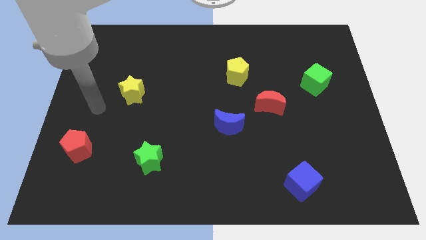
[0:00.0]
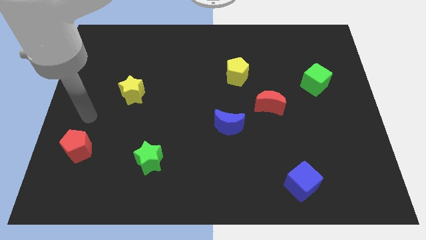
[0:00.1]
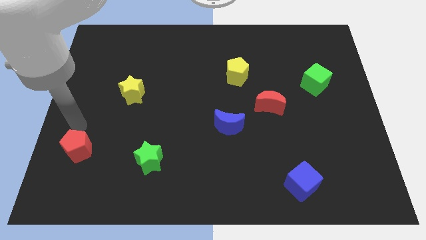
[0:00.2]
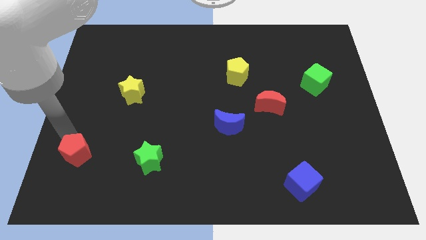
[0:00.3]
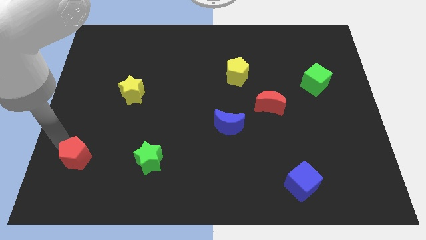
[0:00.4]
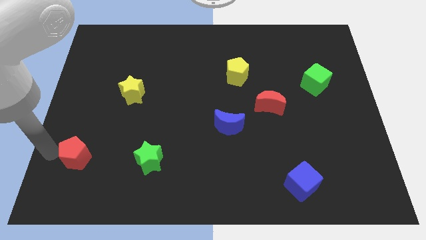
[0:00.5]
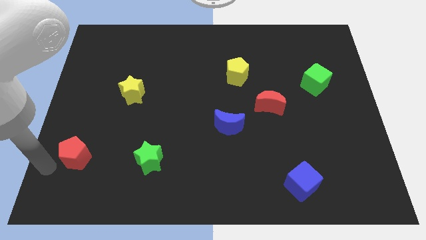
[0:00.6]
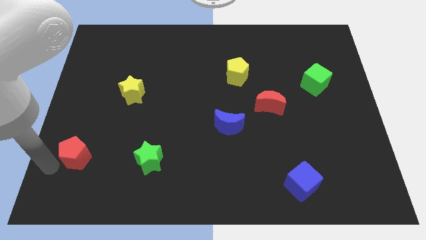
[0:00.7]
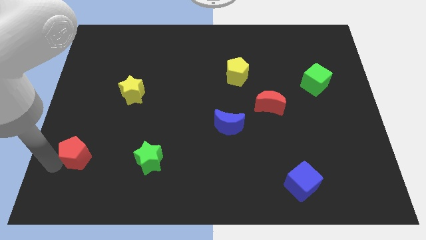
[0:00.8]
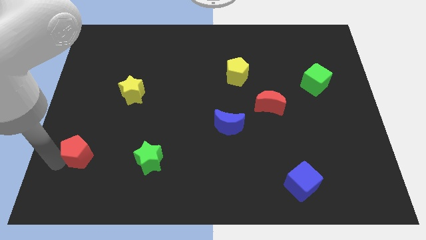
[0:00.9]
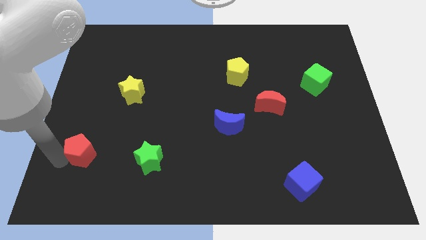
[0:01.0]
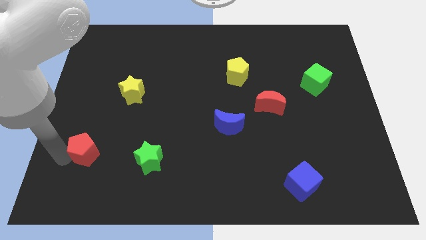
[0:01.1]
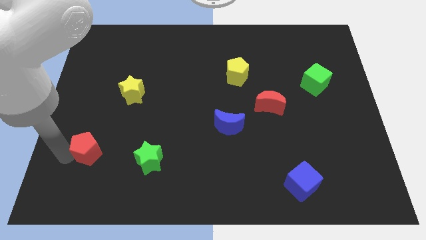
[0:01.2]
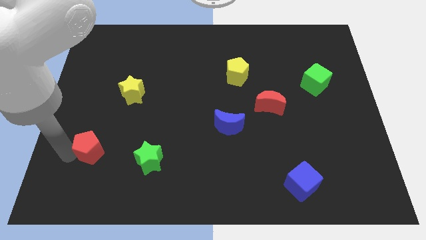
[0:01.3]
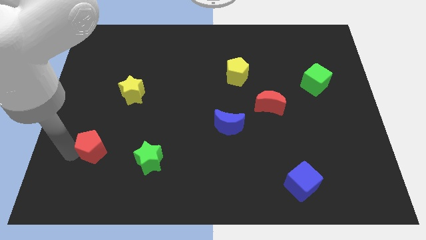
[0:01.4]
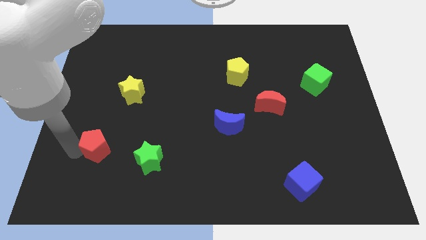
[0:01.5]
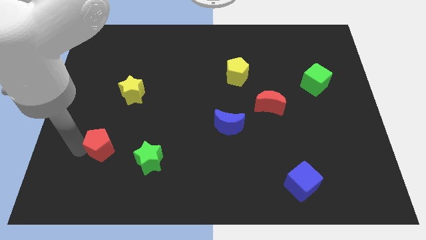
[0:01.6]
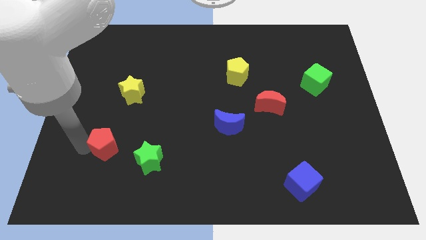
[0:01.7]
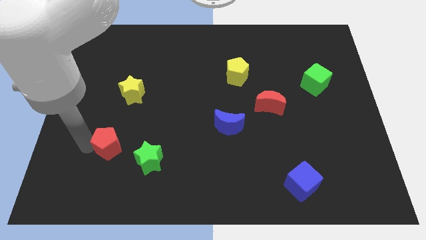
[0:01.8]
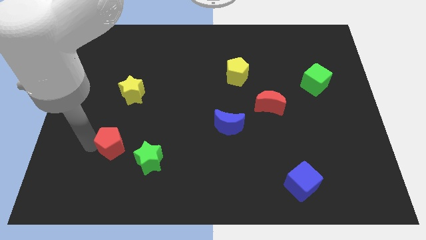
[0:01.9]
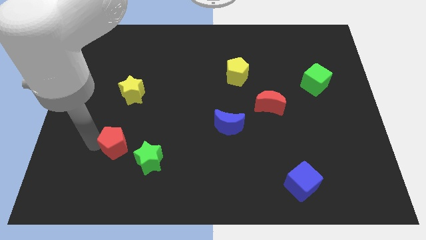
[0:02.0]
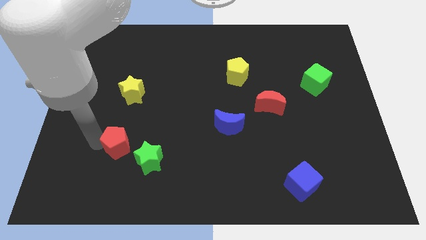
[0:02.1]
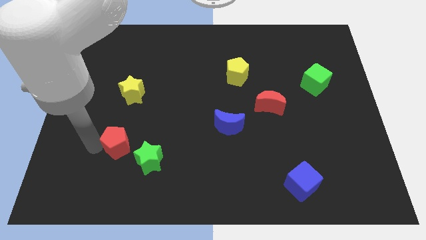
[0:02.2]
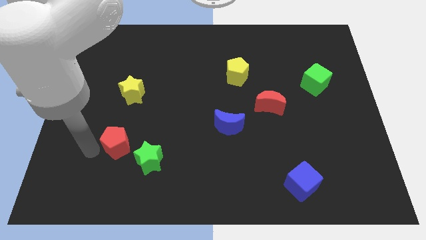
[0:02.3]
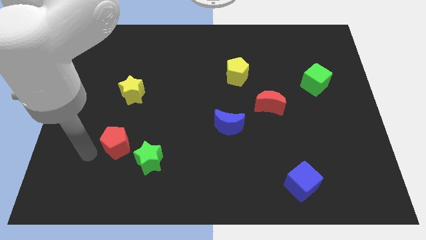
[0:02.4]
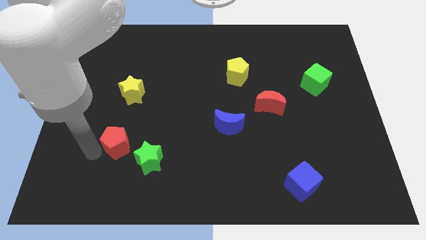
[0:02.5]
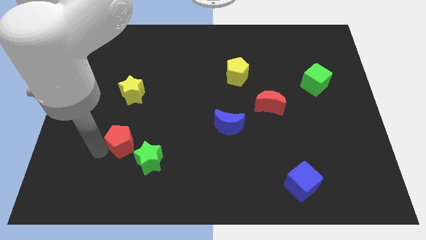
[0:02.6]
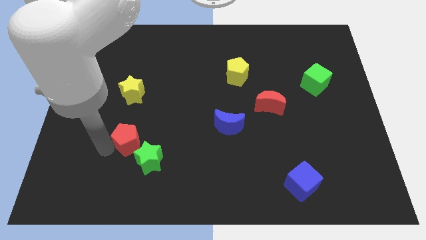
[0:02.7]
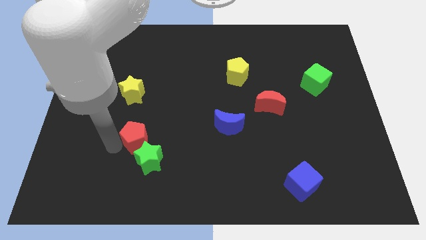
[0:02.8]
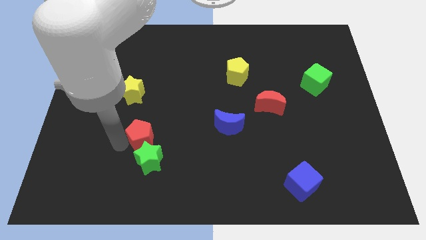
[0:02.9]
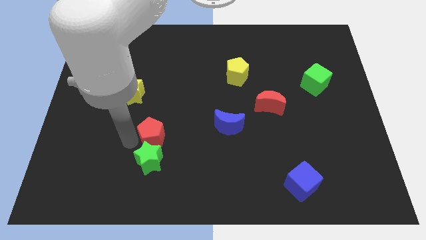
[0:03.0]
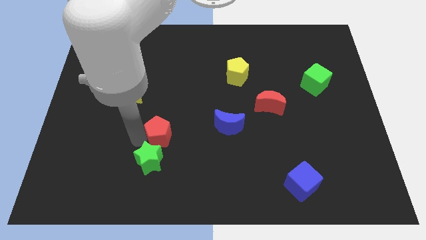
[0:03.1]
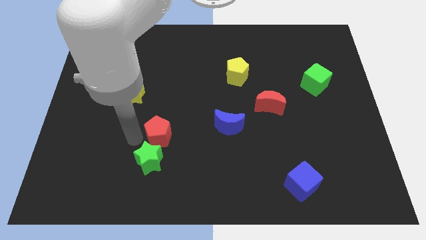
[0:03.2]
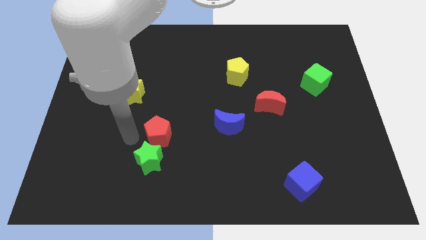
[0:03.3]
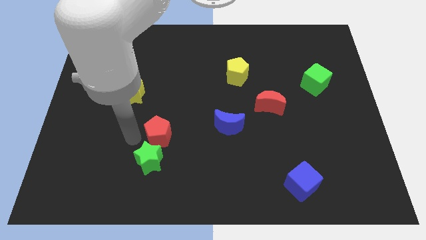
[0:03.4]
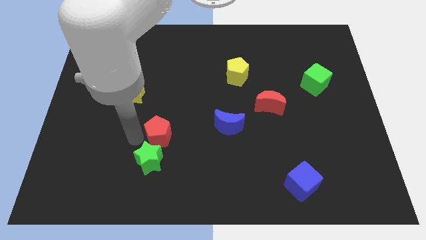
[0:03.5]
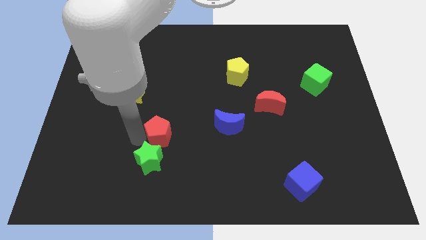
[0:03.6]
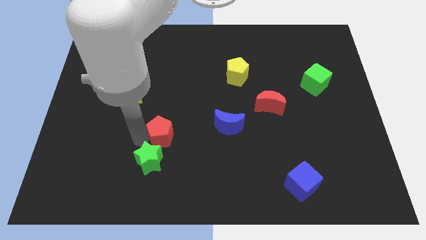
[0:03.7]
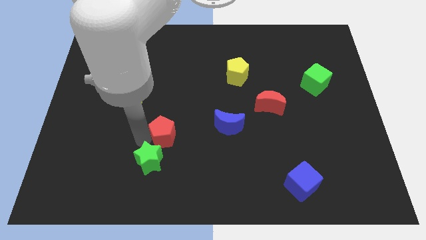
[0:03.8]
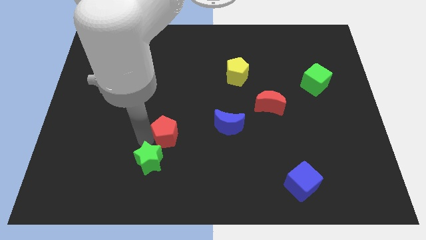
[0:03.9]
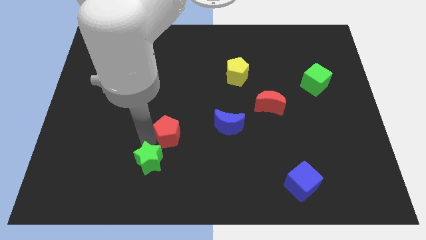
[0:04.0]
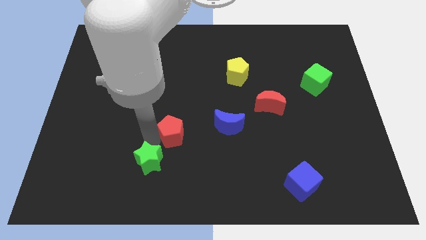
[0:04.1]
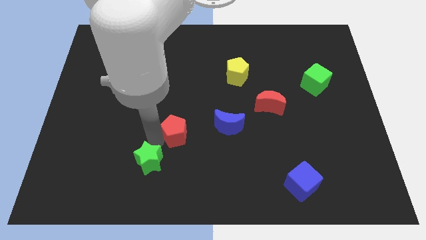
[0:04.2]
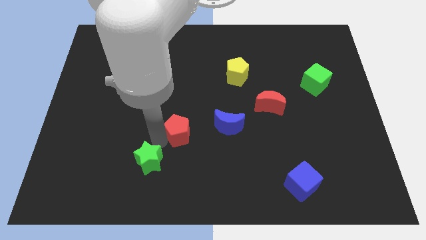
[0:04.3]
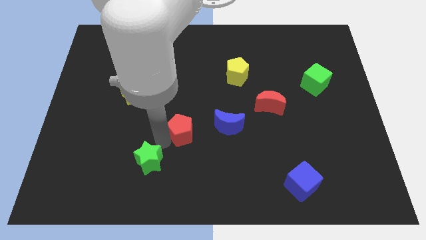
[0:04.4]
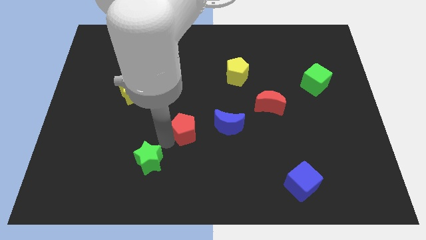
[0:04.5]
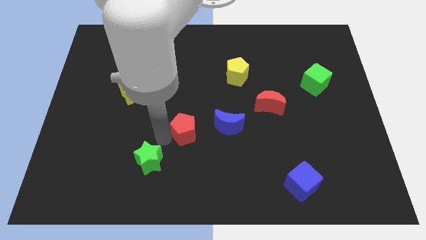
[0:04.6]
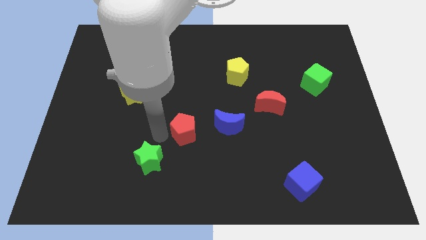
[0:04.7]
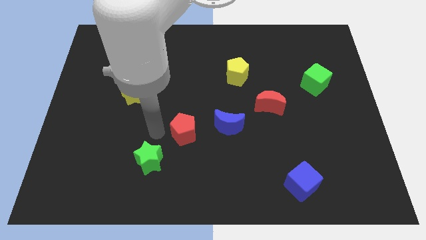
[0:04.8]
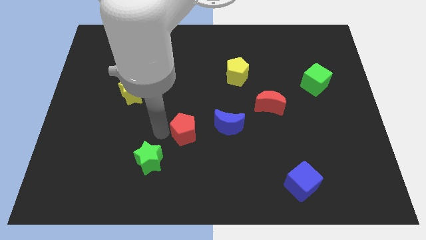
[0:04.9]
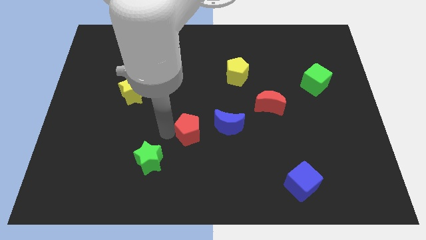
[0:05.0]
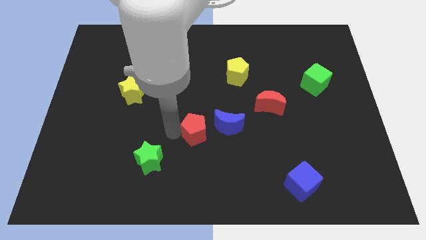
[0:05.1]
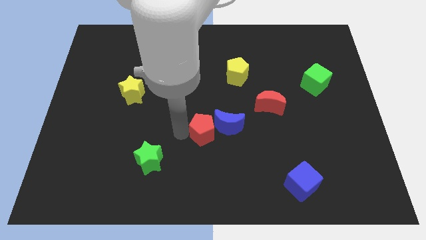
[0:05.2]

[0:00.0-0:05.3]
put the red pentagon towards the blue moon

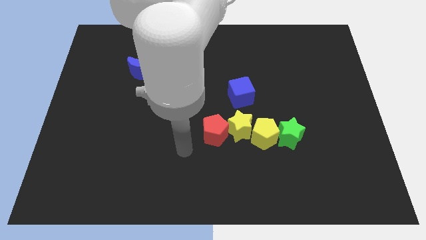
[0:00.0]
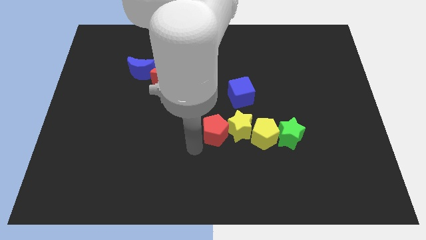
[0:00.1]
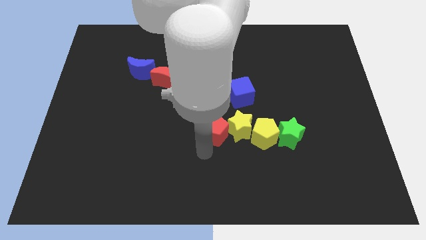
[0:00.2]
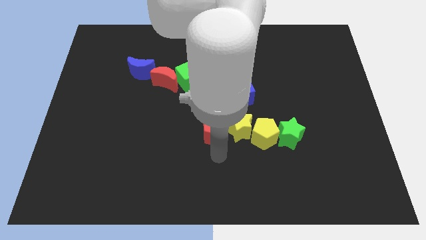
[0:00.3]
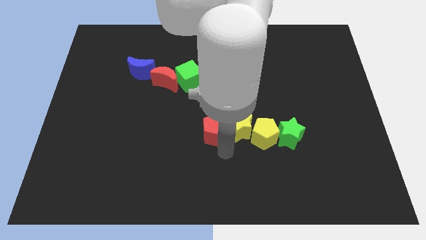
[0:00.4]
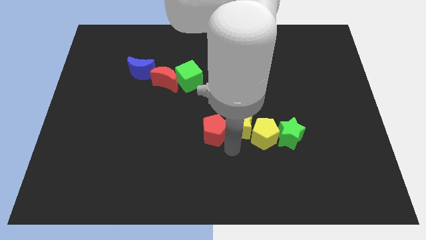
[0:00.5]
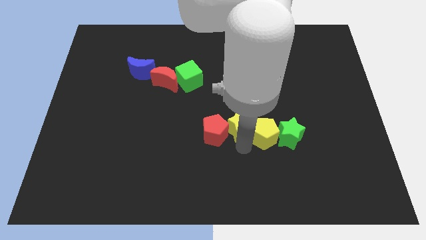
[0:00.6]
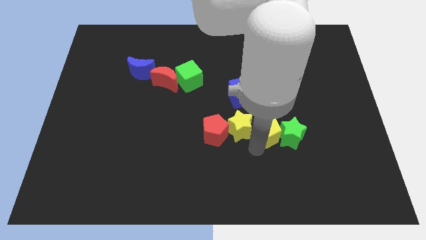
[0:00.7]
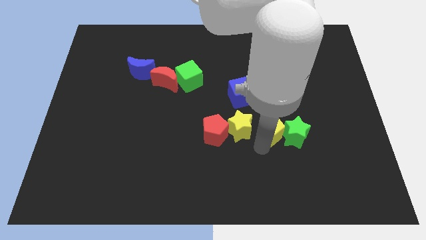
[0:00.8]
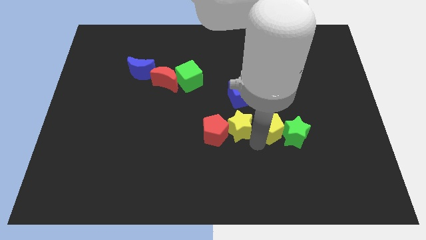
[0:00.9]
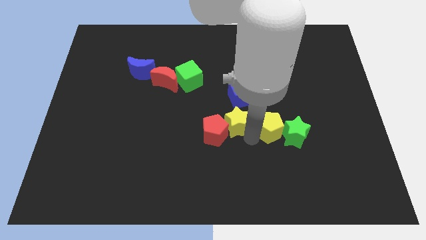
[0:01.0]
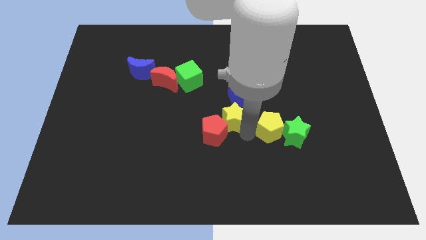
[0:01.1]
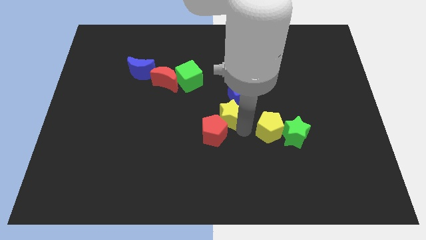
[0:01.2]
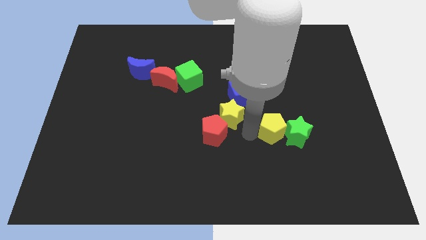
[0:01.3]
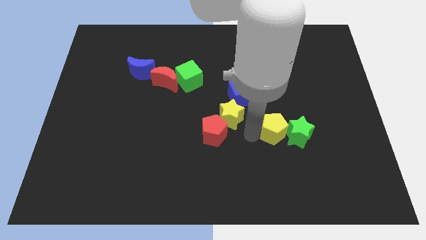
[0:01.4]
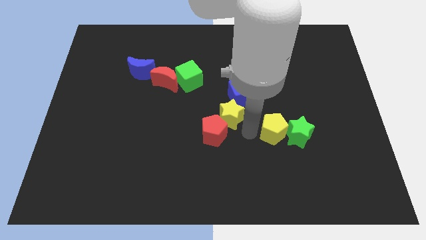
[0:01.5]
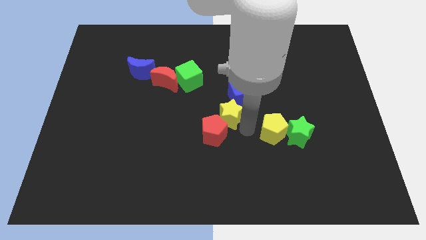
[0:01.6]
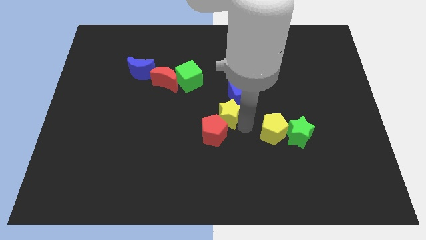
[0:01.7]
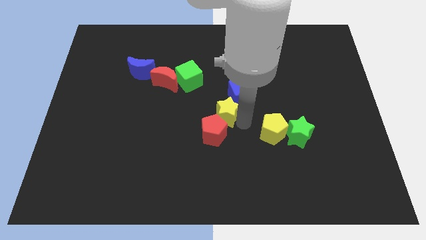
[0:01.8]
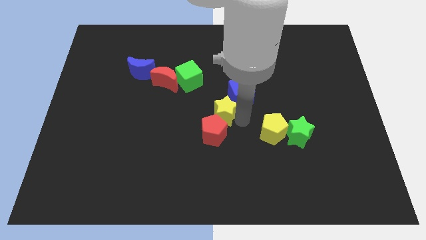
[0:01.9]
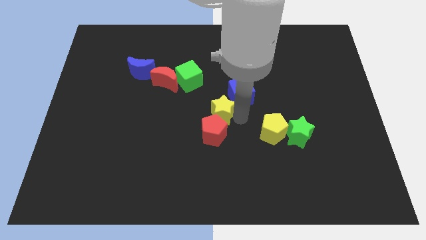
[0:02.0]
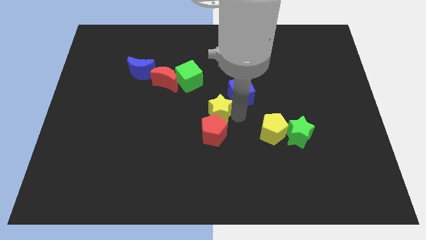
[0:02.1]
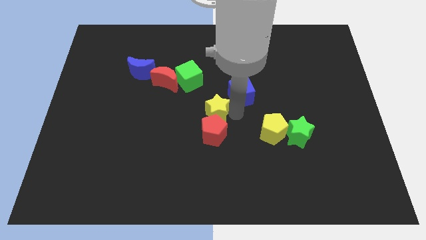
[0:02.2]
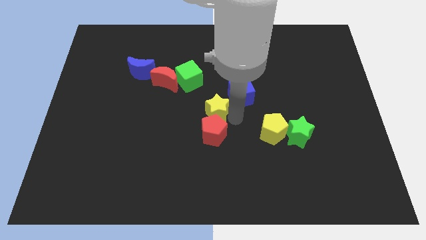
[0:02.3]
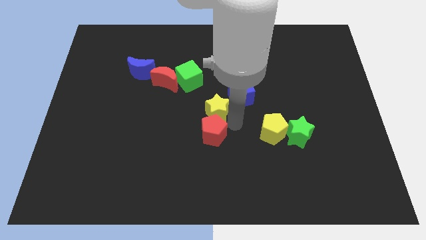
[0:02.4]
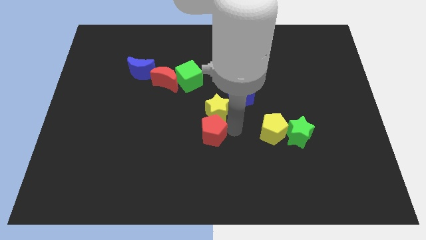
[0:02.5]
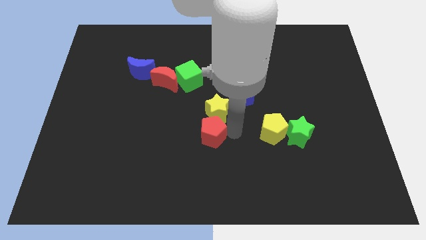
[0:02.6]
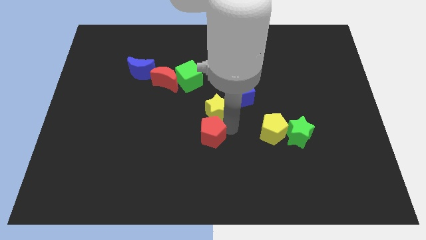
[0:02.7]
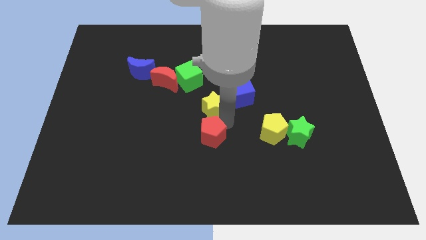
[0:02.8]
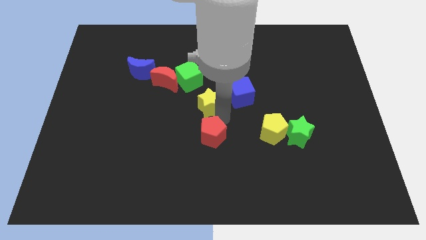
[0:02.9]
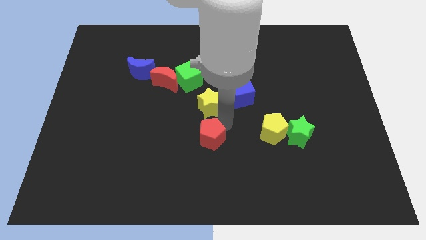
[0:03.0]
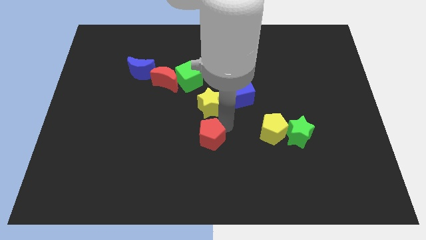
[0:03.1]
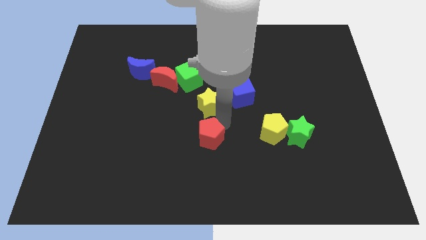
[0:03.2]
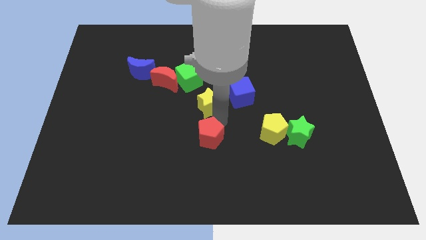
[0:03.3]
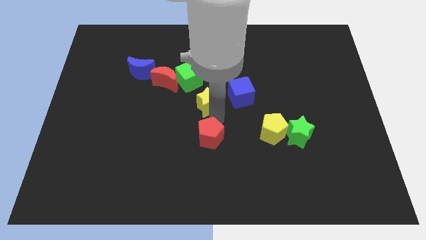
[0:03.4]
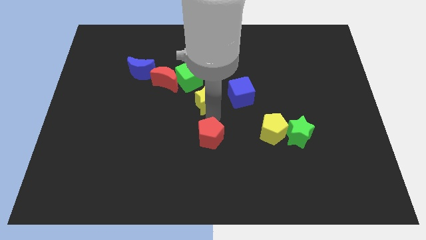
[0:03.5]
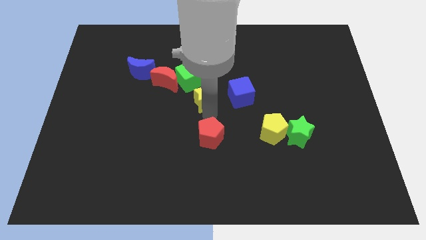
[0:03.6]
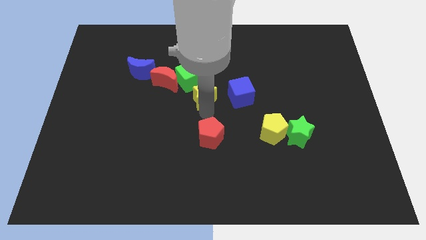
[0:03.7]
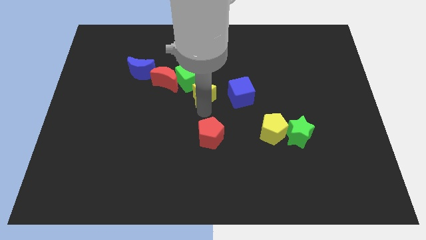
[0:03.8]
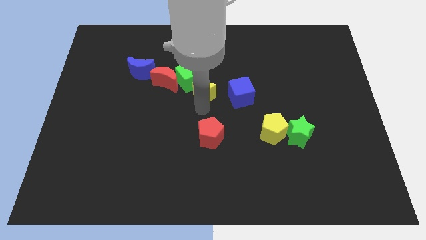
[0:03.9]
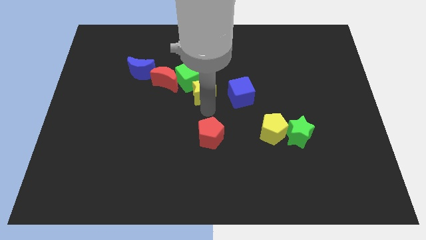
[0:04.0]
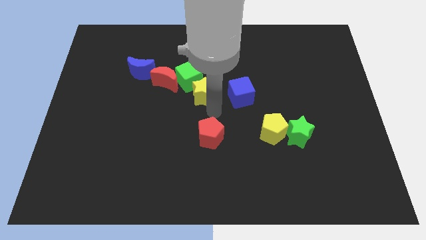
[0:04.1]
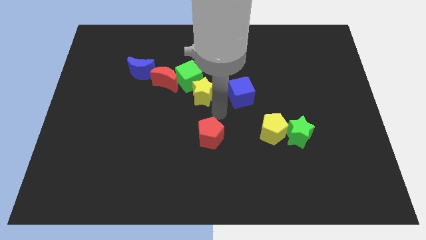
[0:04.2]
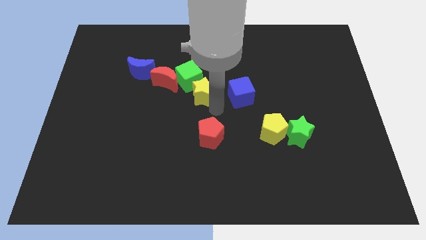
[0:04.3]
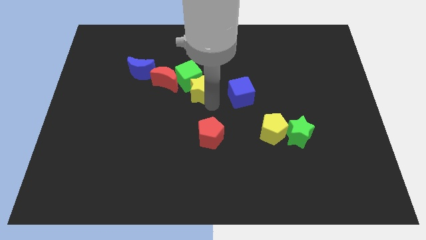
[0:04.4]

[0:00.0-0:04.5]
slide the yellow star towards the green cube
